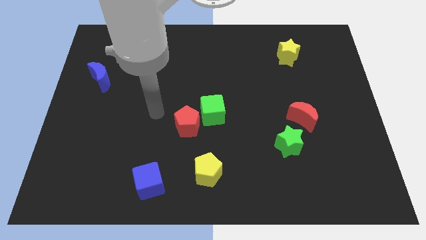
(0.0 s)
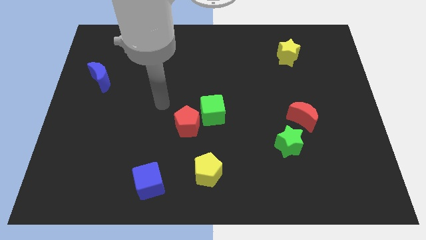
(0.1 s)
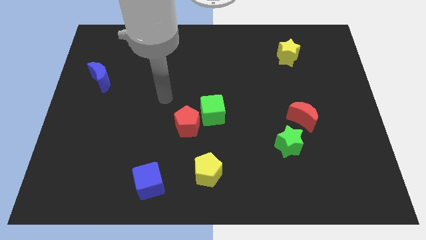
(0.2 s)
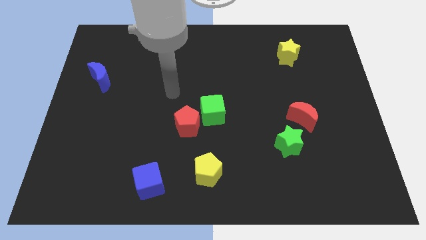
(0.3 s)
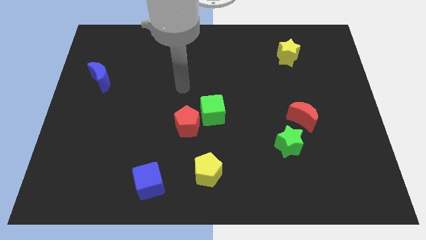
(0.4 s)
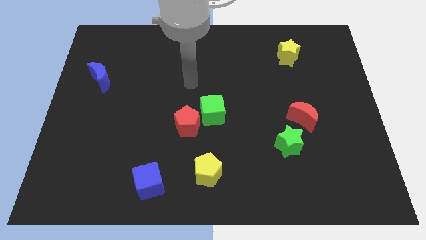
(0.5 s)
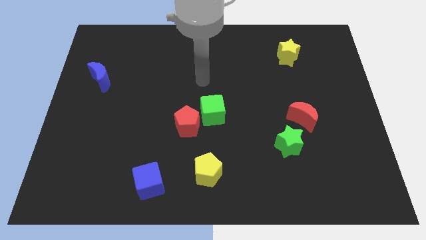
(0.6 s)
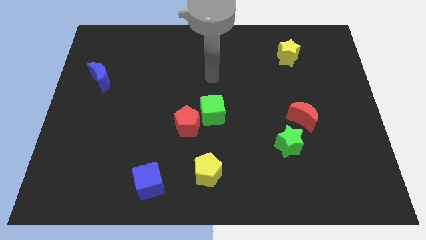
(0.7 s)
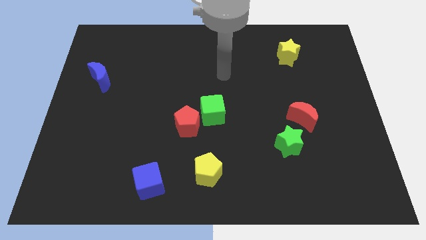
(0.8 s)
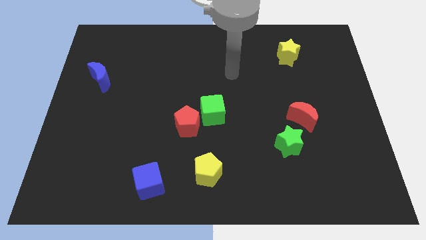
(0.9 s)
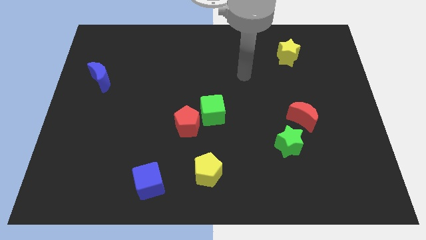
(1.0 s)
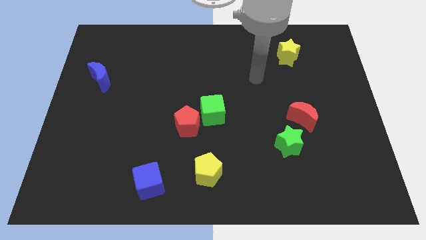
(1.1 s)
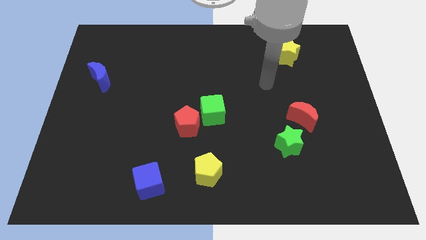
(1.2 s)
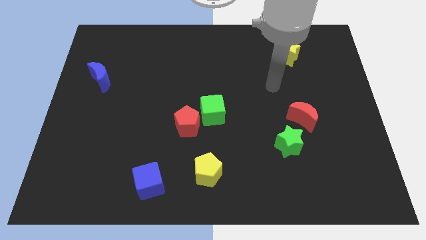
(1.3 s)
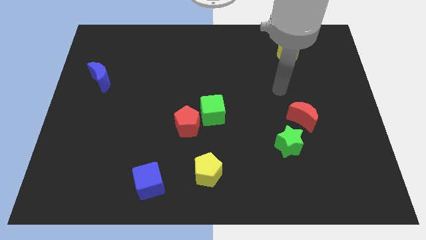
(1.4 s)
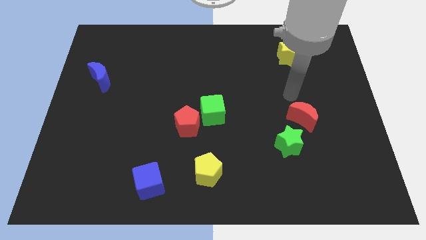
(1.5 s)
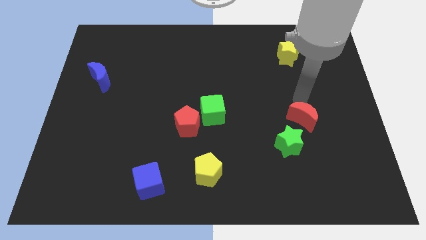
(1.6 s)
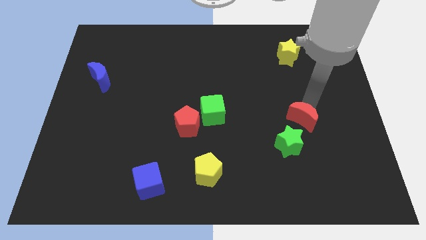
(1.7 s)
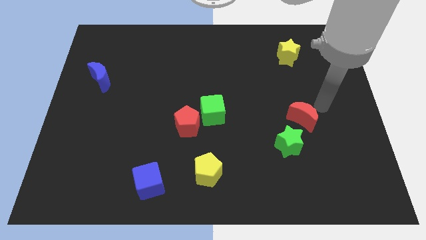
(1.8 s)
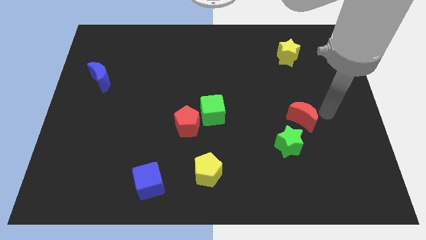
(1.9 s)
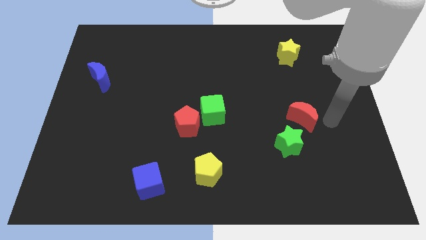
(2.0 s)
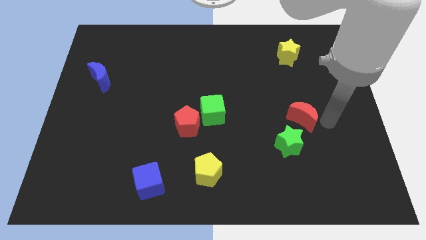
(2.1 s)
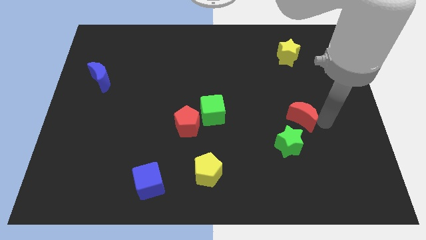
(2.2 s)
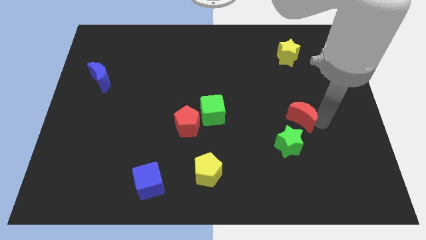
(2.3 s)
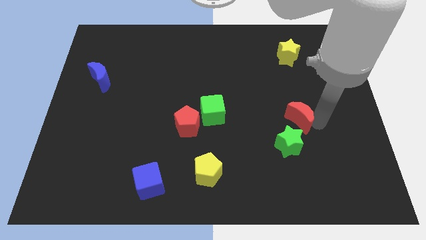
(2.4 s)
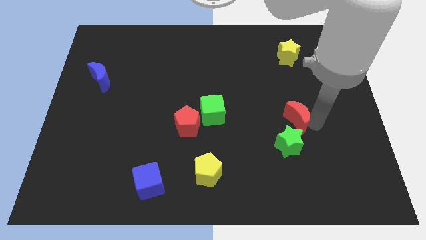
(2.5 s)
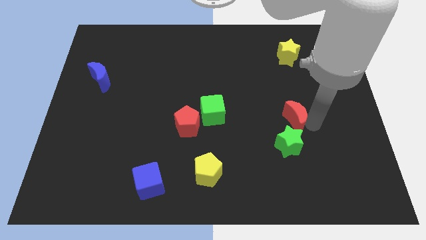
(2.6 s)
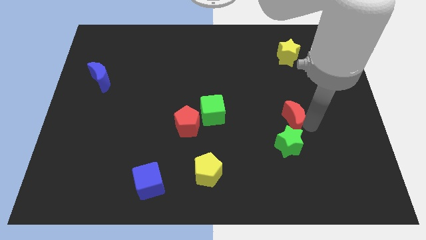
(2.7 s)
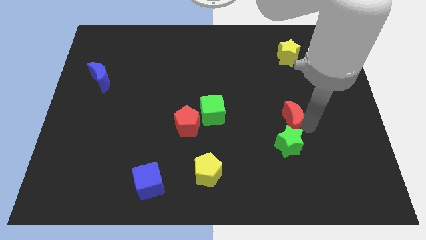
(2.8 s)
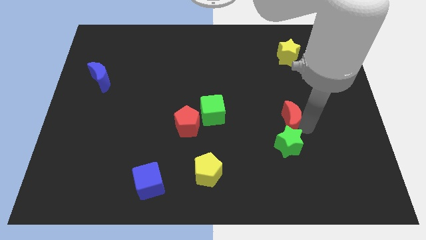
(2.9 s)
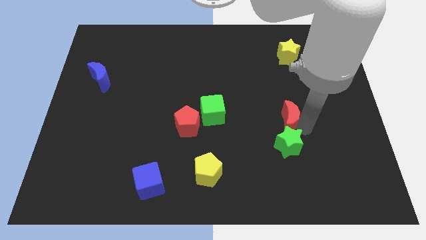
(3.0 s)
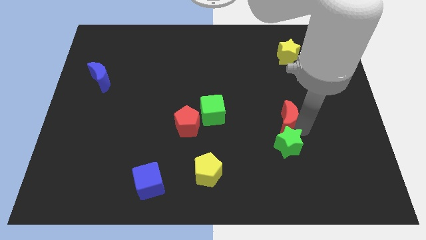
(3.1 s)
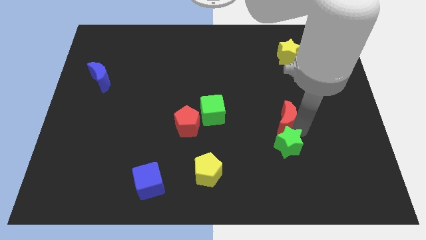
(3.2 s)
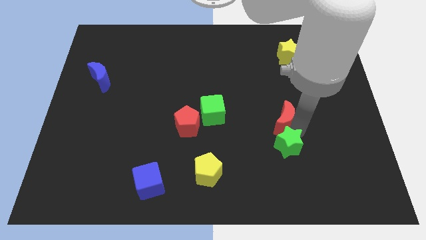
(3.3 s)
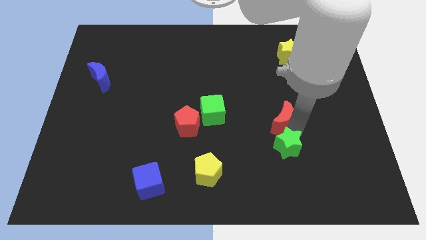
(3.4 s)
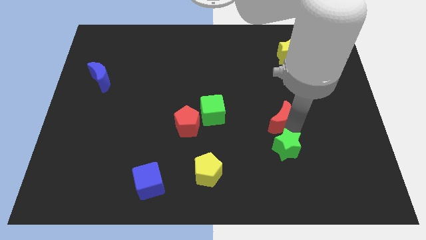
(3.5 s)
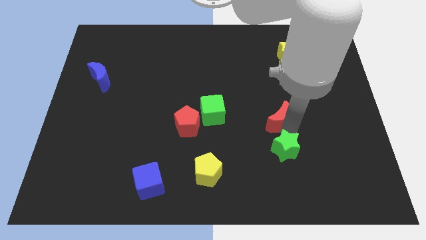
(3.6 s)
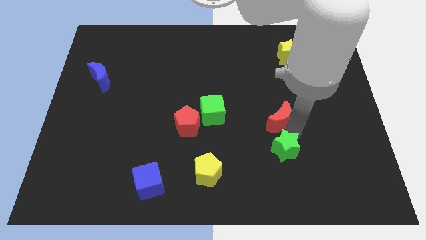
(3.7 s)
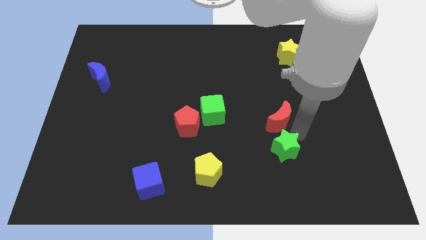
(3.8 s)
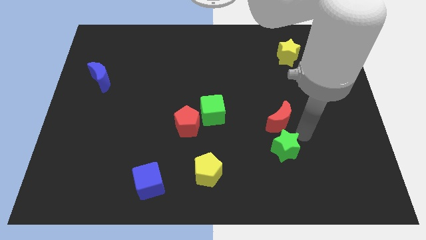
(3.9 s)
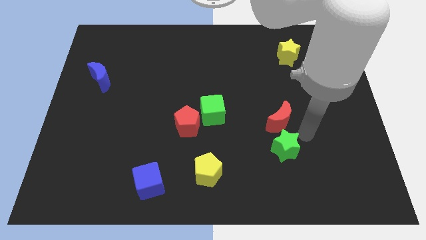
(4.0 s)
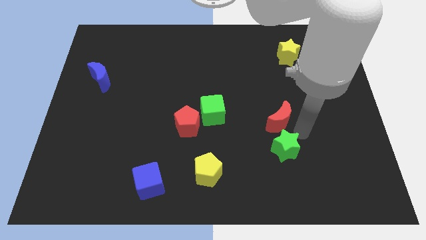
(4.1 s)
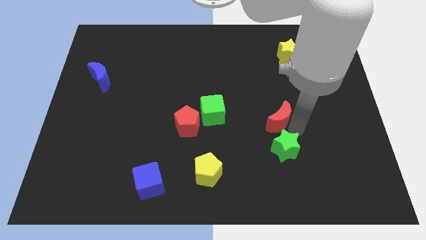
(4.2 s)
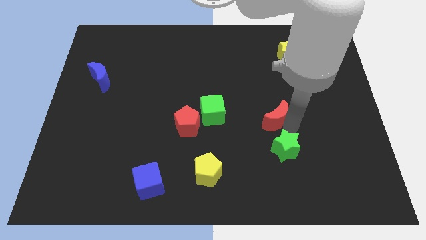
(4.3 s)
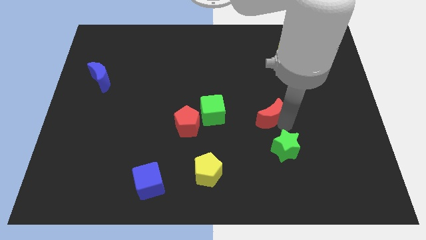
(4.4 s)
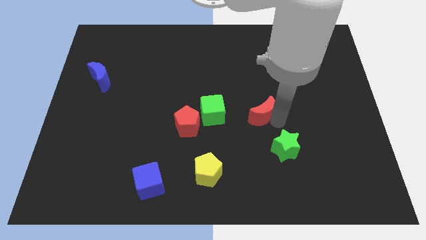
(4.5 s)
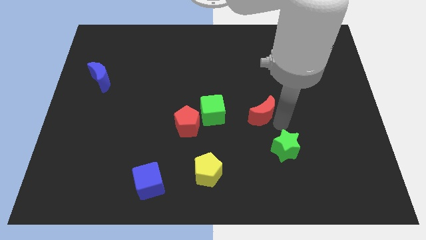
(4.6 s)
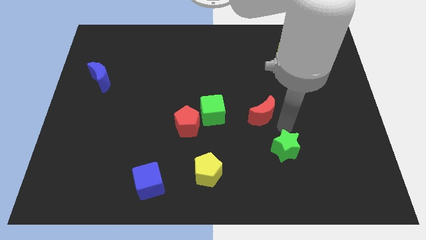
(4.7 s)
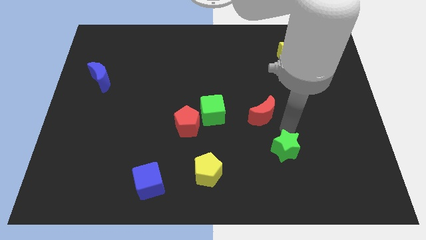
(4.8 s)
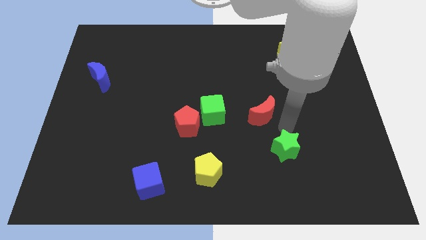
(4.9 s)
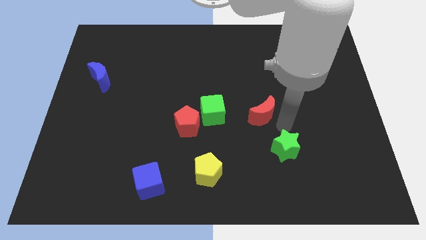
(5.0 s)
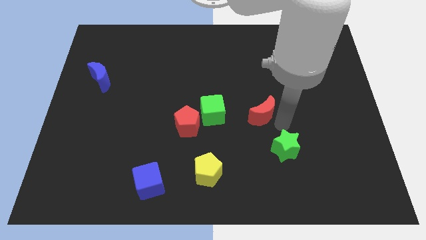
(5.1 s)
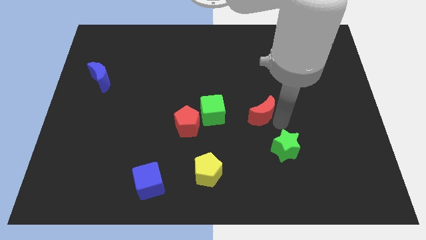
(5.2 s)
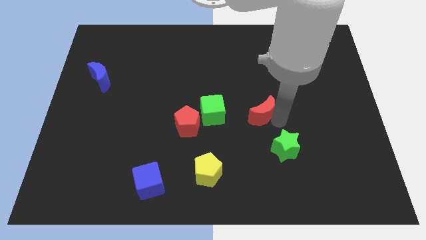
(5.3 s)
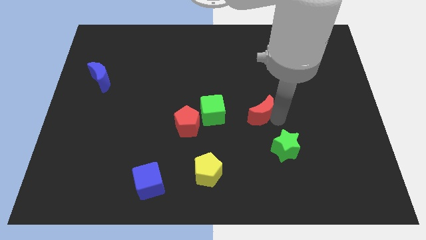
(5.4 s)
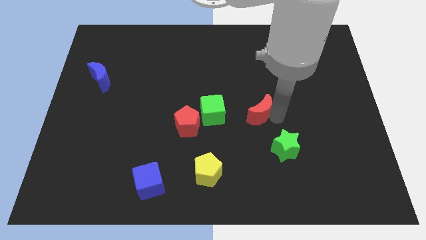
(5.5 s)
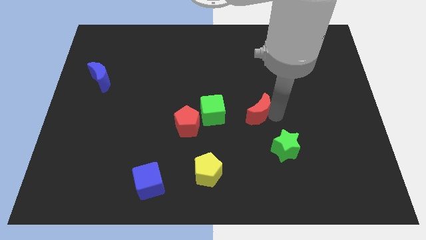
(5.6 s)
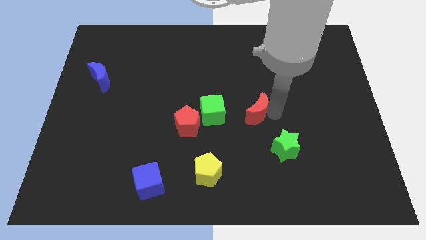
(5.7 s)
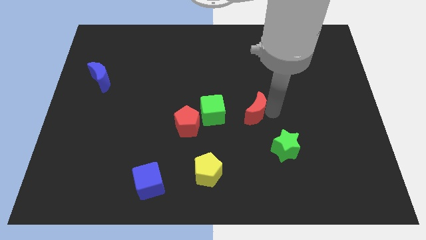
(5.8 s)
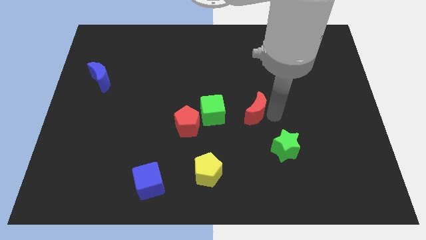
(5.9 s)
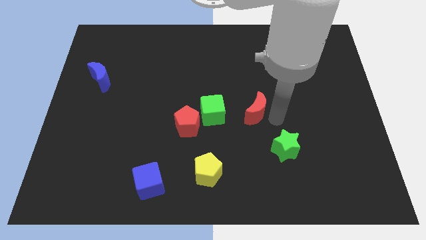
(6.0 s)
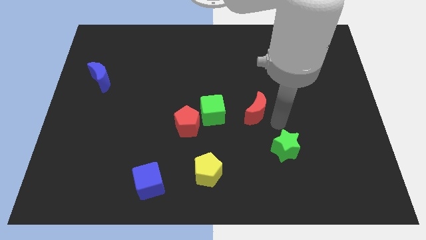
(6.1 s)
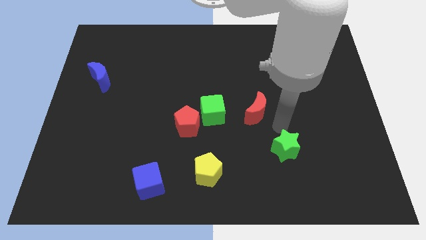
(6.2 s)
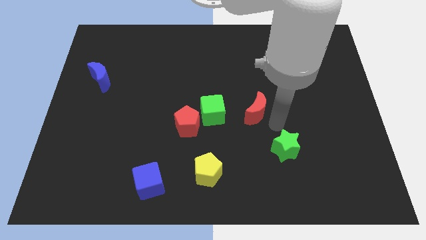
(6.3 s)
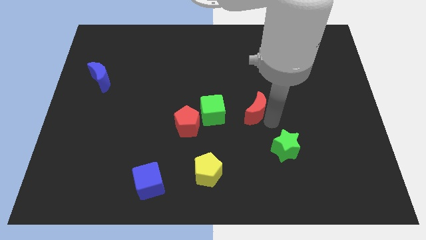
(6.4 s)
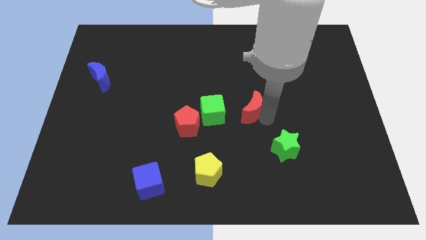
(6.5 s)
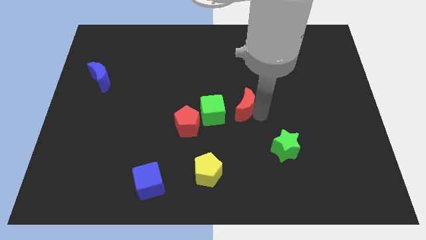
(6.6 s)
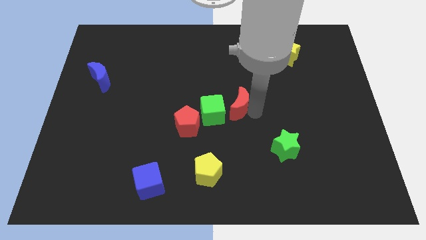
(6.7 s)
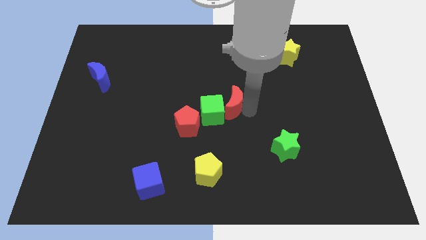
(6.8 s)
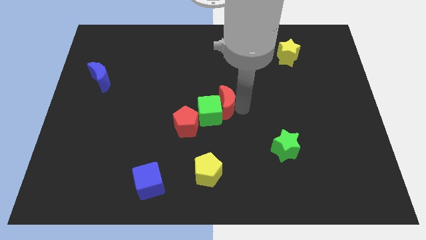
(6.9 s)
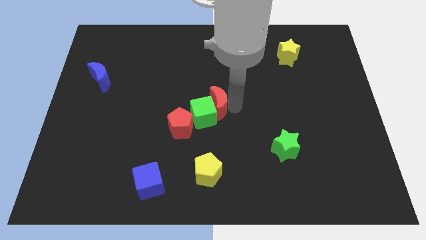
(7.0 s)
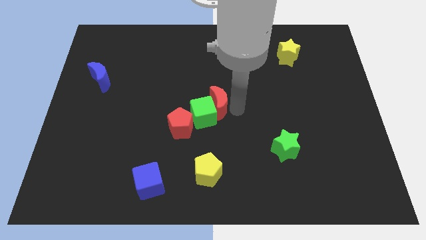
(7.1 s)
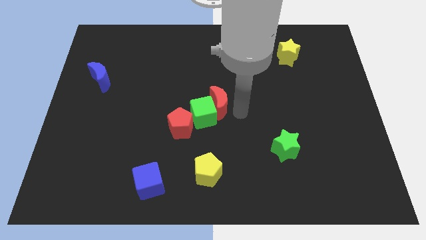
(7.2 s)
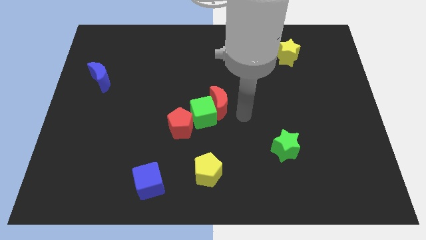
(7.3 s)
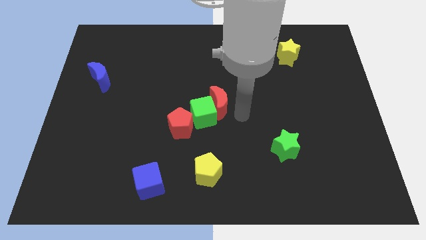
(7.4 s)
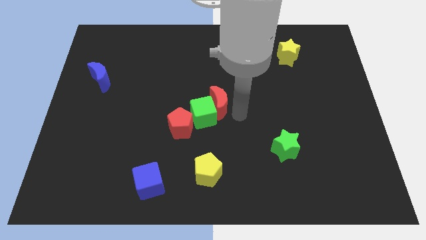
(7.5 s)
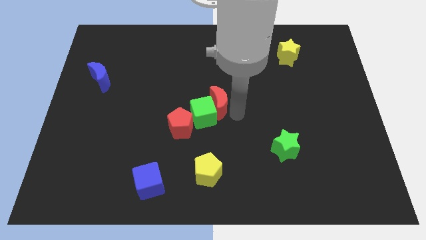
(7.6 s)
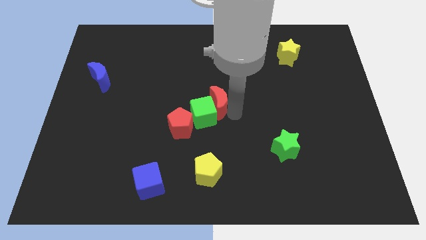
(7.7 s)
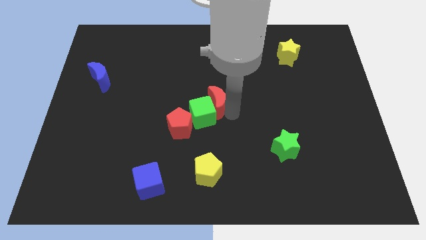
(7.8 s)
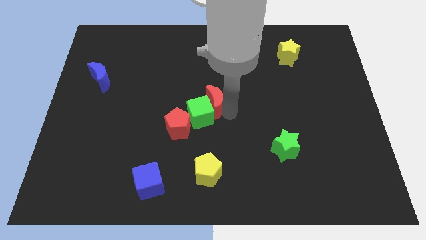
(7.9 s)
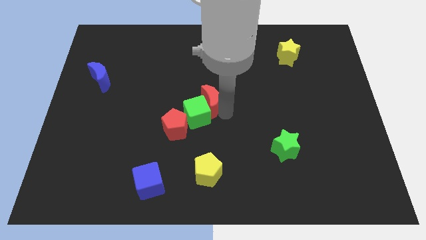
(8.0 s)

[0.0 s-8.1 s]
move the red moon left
